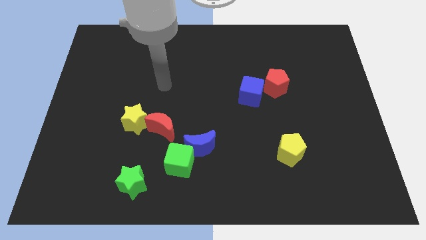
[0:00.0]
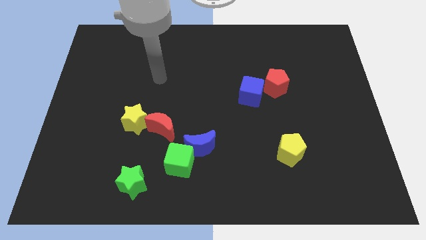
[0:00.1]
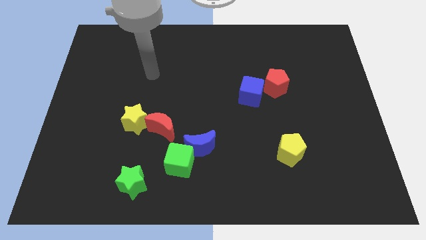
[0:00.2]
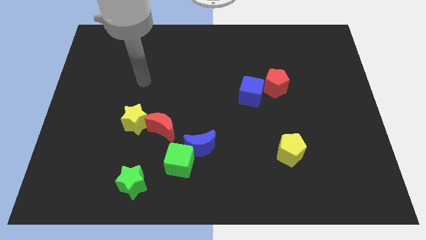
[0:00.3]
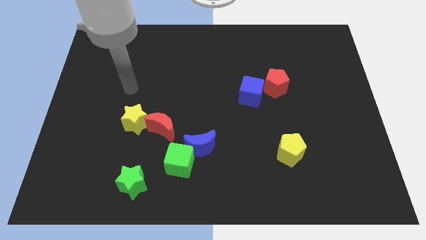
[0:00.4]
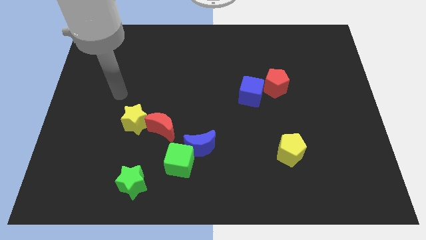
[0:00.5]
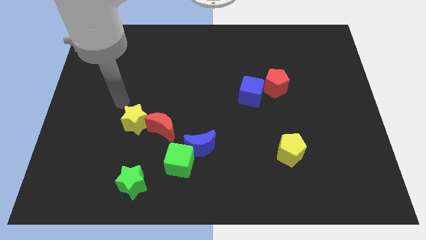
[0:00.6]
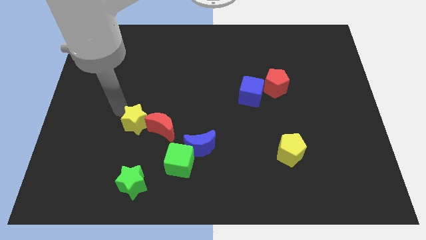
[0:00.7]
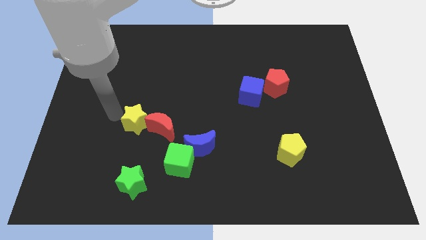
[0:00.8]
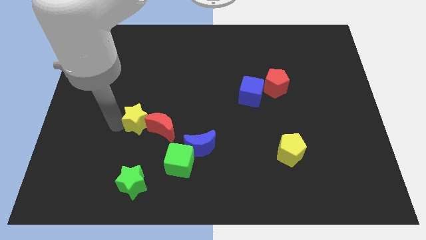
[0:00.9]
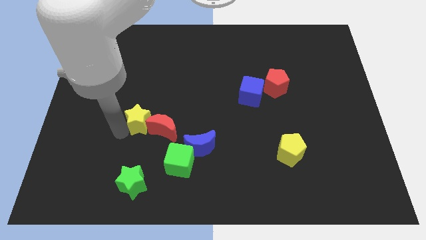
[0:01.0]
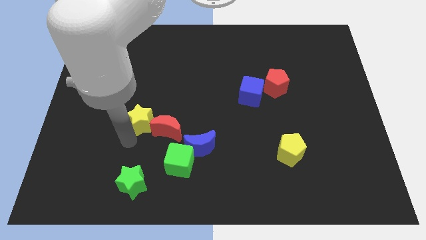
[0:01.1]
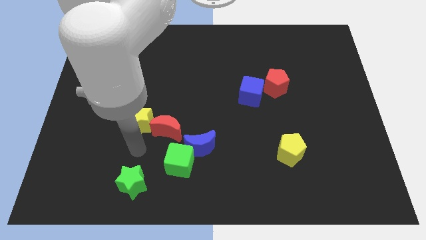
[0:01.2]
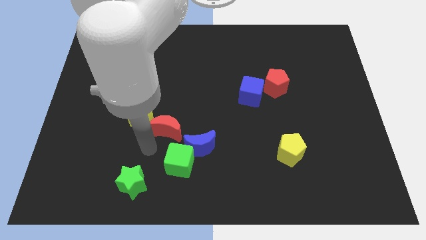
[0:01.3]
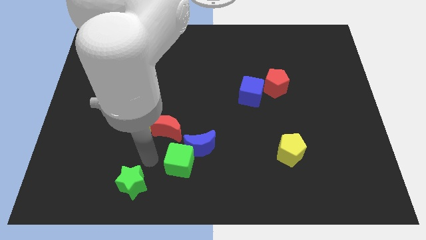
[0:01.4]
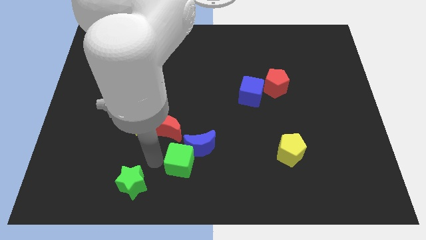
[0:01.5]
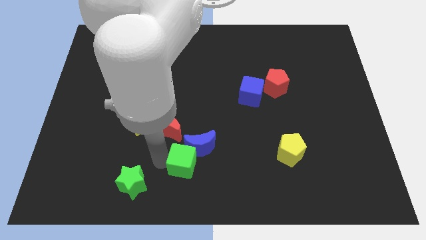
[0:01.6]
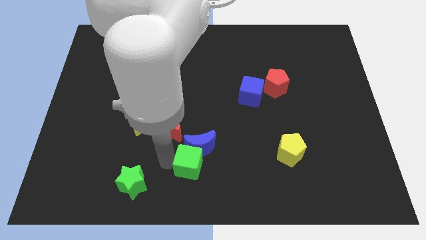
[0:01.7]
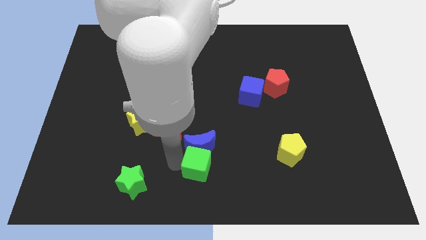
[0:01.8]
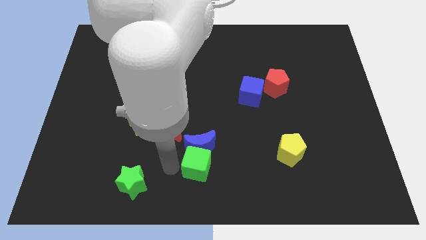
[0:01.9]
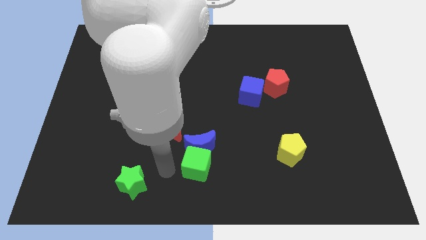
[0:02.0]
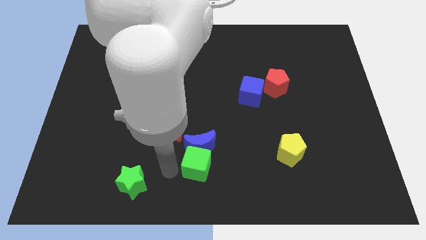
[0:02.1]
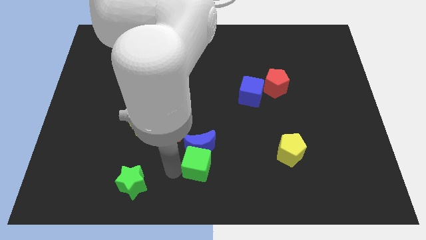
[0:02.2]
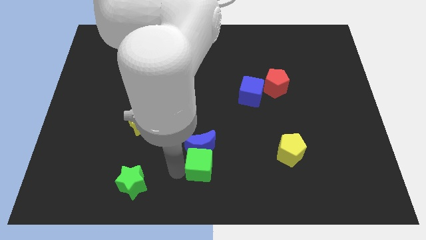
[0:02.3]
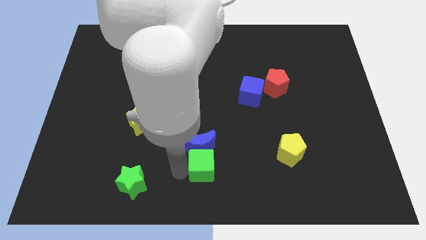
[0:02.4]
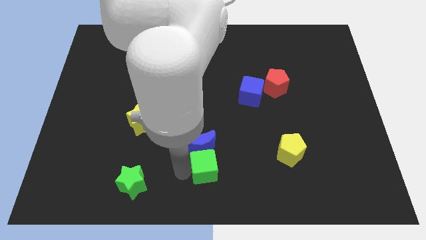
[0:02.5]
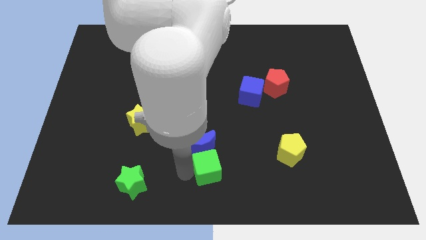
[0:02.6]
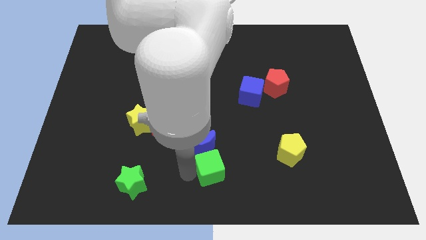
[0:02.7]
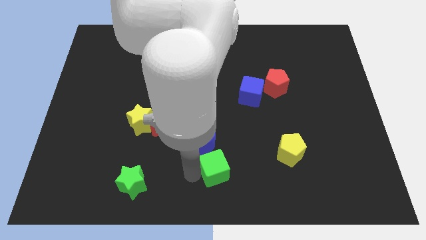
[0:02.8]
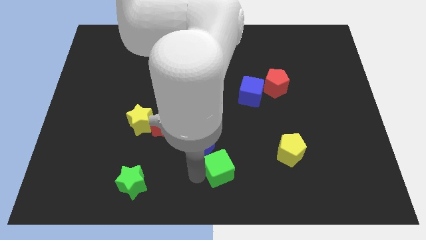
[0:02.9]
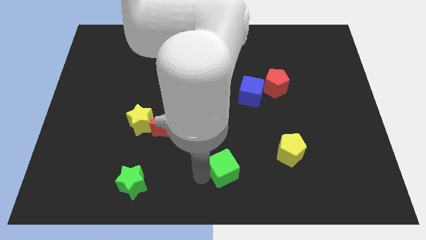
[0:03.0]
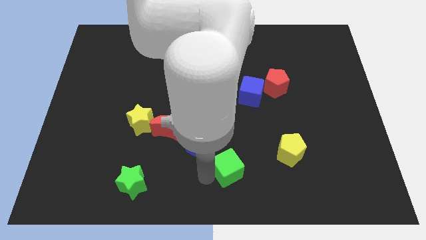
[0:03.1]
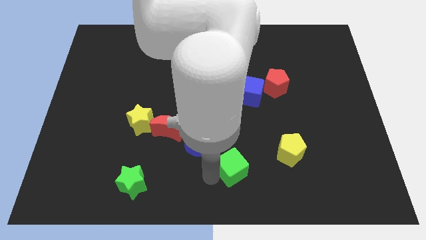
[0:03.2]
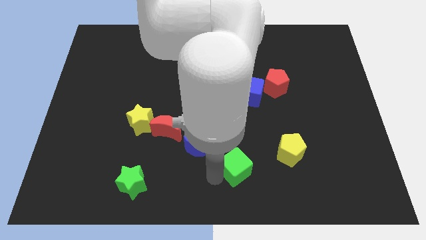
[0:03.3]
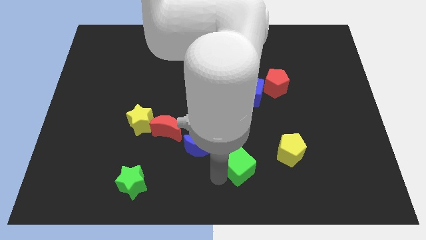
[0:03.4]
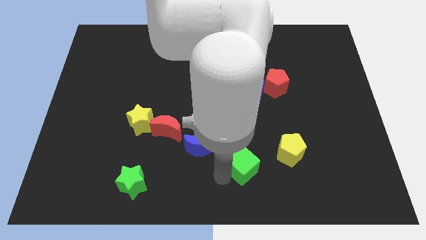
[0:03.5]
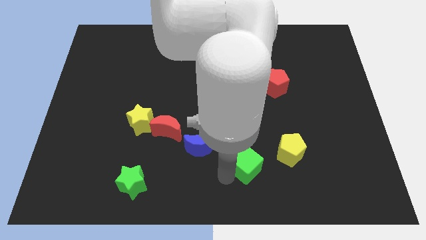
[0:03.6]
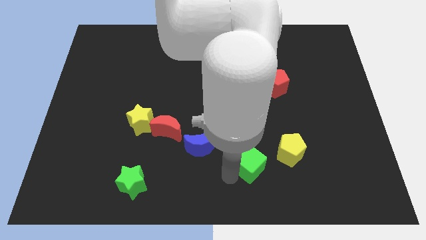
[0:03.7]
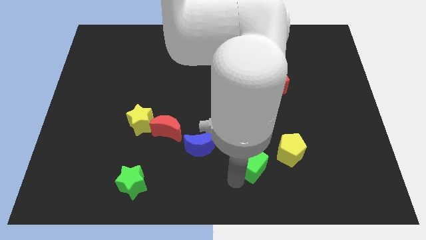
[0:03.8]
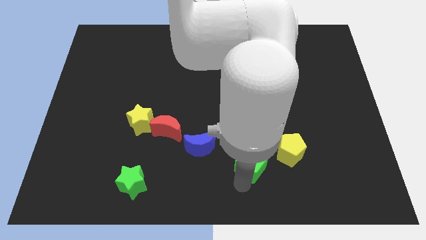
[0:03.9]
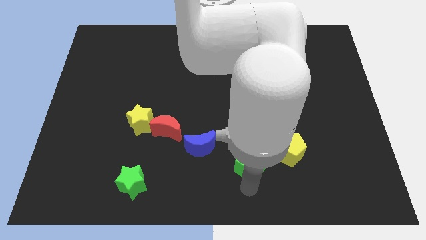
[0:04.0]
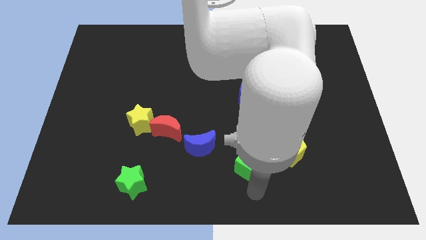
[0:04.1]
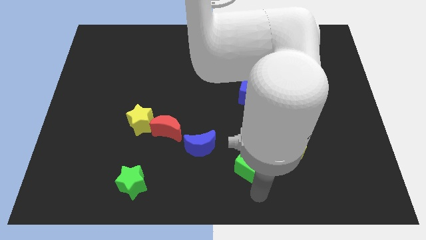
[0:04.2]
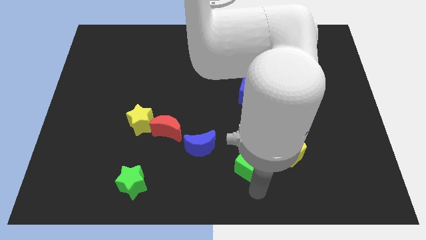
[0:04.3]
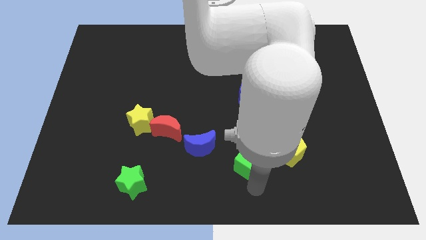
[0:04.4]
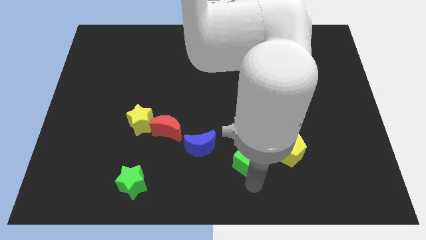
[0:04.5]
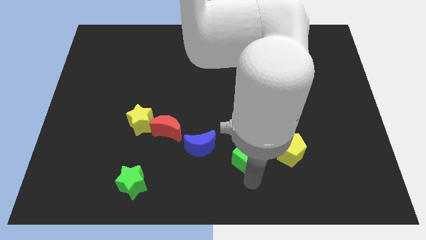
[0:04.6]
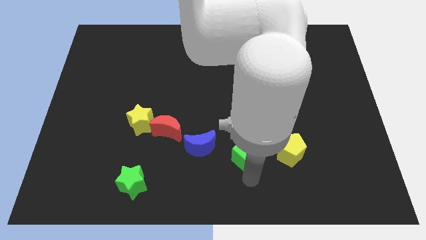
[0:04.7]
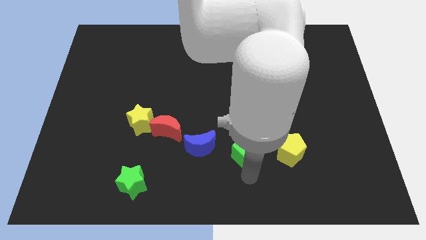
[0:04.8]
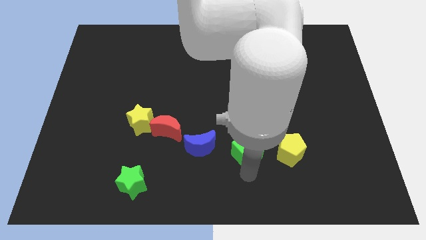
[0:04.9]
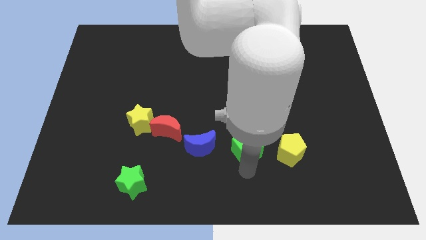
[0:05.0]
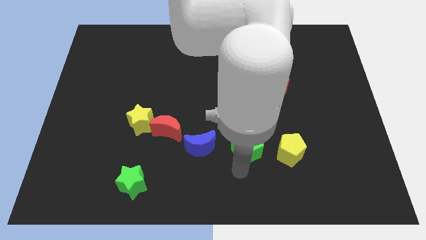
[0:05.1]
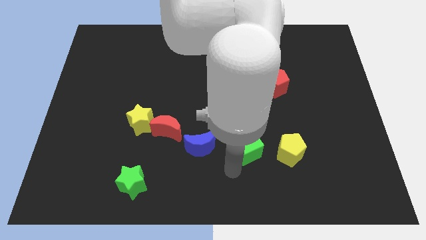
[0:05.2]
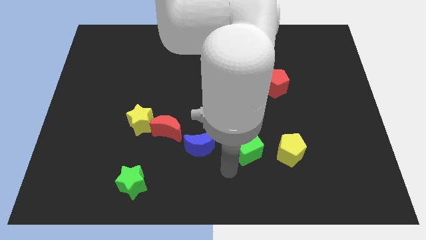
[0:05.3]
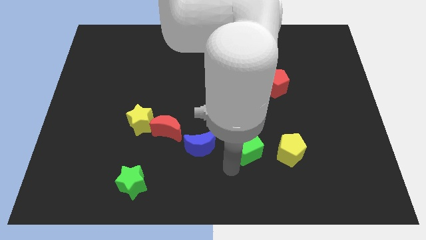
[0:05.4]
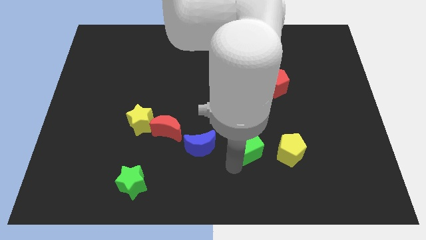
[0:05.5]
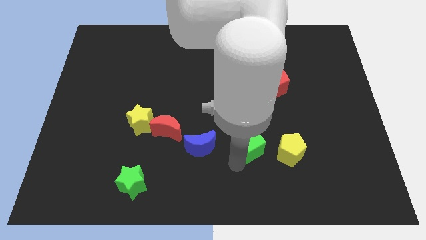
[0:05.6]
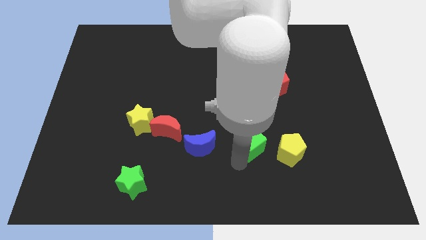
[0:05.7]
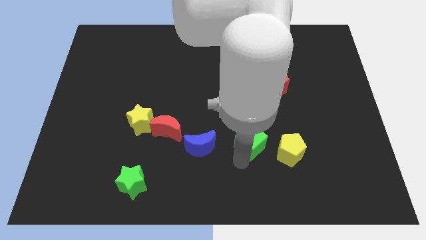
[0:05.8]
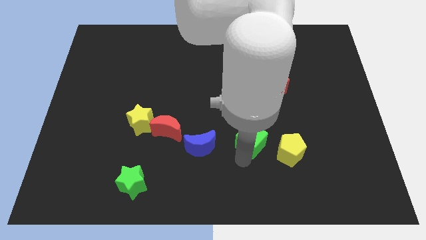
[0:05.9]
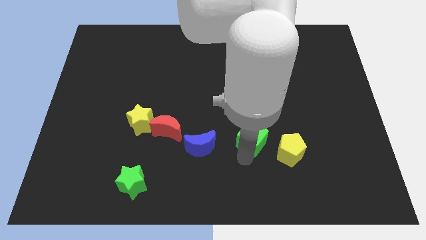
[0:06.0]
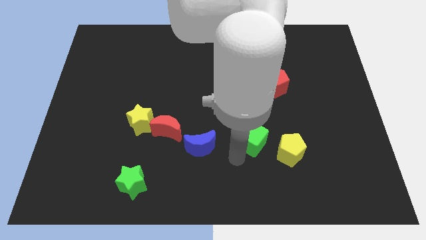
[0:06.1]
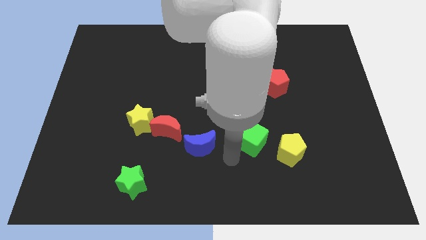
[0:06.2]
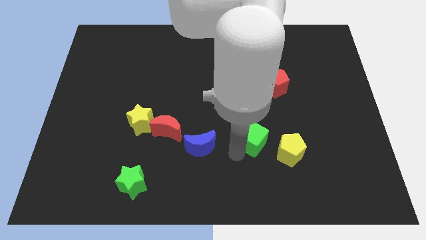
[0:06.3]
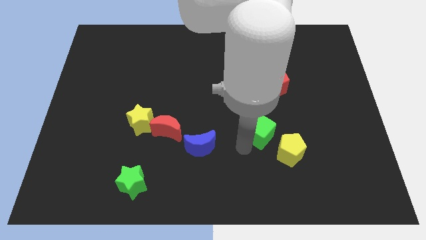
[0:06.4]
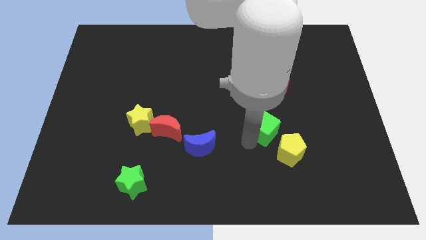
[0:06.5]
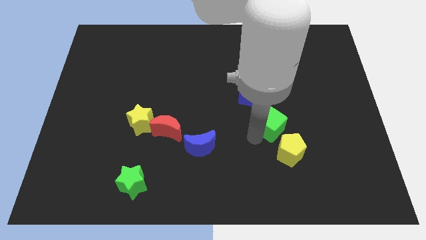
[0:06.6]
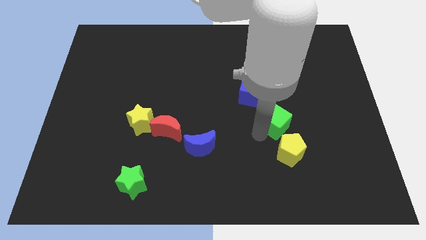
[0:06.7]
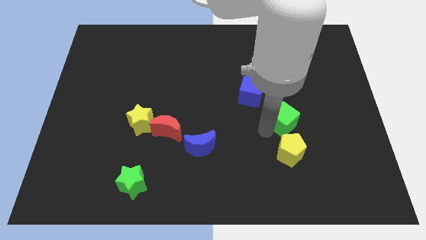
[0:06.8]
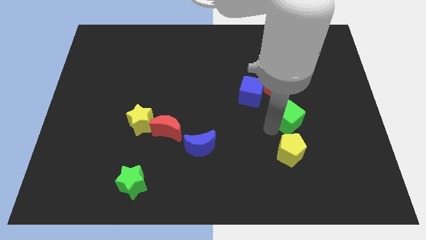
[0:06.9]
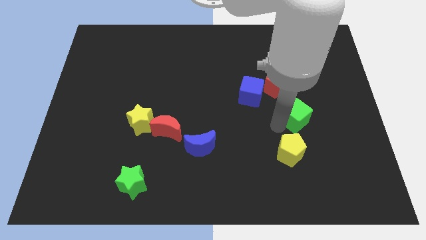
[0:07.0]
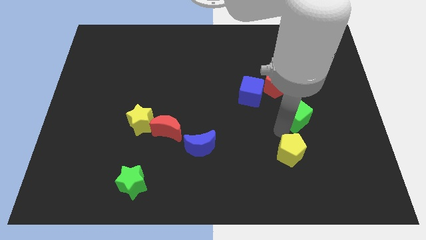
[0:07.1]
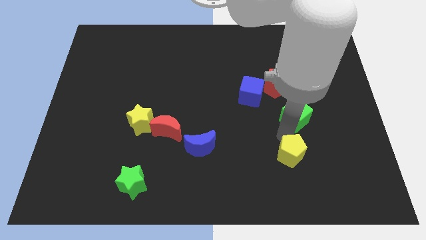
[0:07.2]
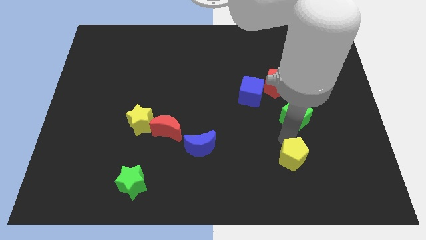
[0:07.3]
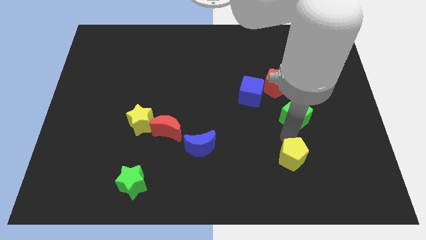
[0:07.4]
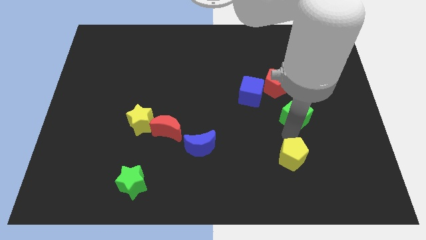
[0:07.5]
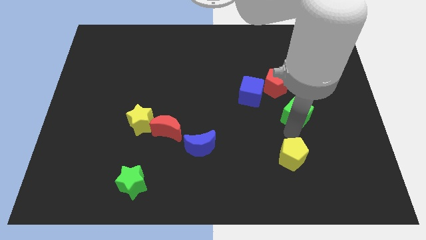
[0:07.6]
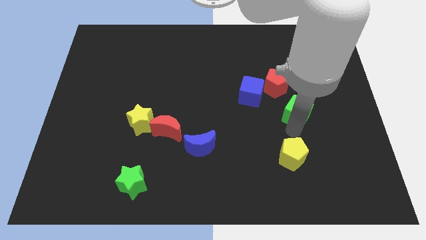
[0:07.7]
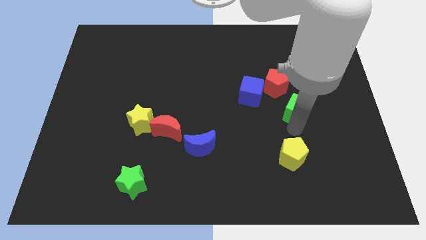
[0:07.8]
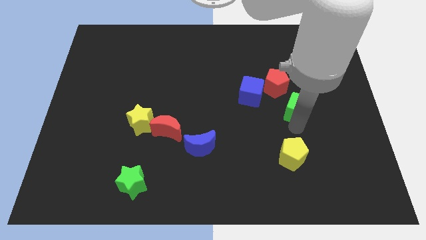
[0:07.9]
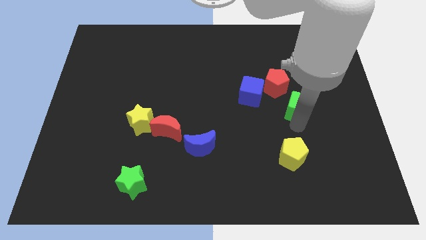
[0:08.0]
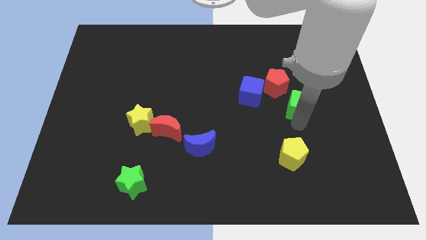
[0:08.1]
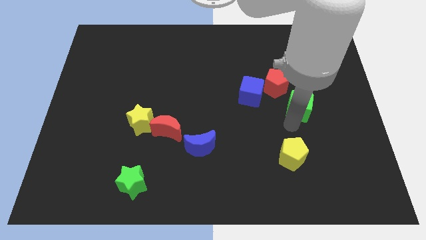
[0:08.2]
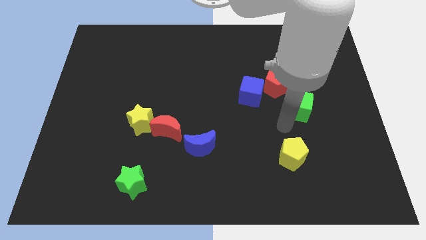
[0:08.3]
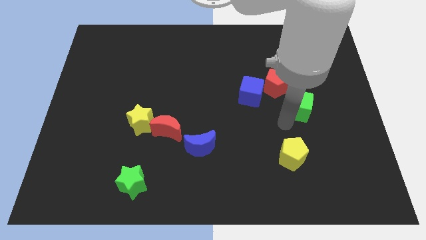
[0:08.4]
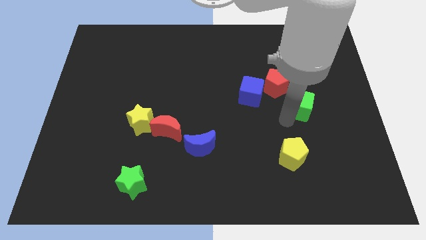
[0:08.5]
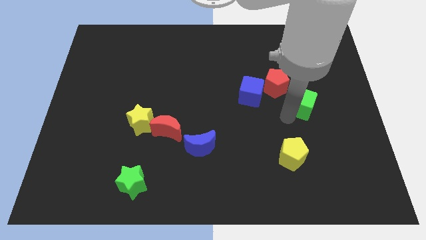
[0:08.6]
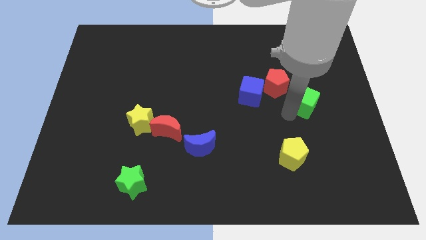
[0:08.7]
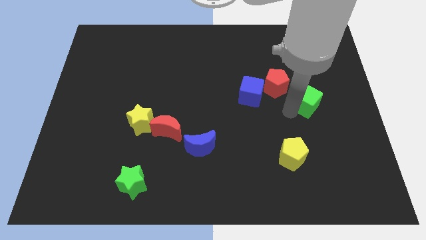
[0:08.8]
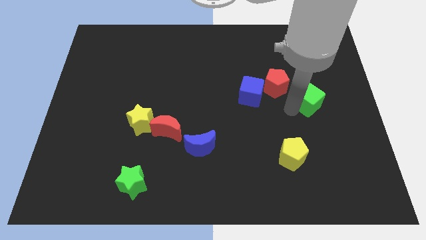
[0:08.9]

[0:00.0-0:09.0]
push the green cube to the right of the red pentagon
